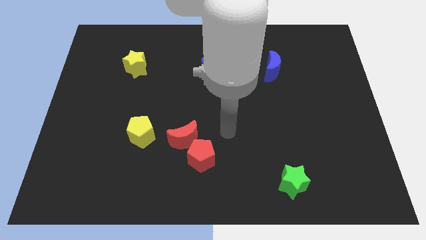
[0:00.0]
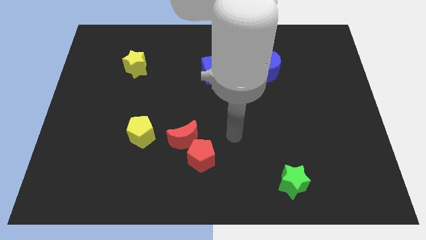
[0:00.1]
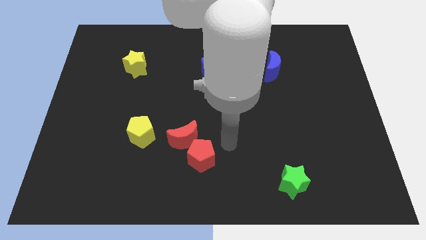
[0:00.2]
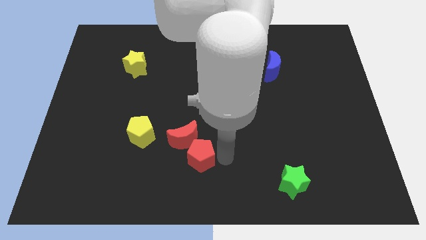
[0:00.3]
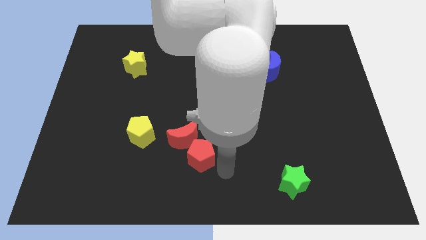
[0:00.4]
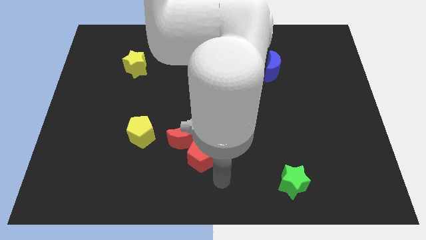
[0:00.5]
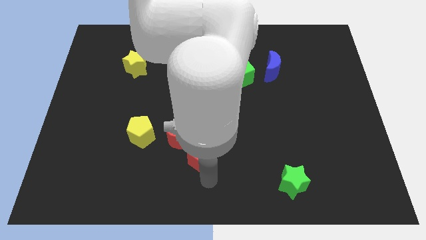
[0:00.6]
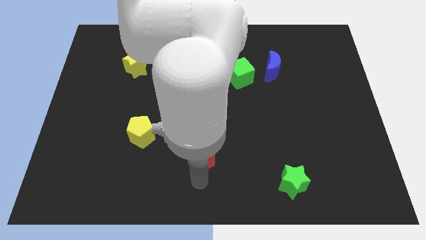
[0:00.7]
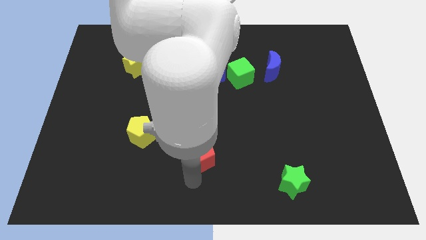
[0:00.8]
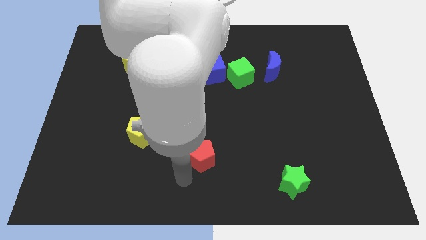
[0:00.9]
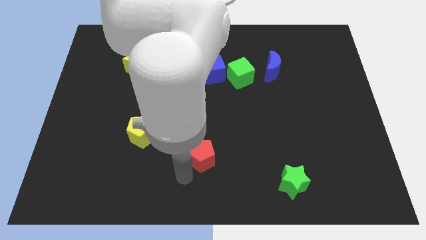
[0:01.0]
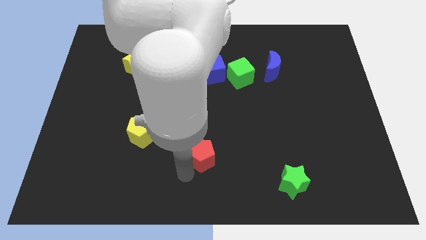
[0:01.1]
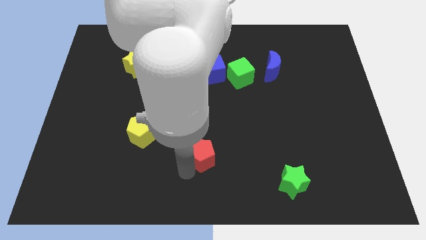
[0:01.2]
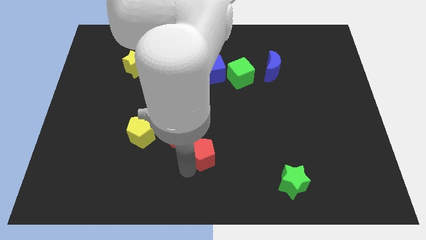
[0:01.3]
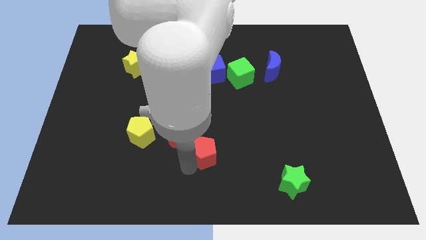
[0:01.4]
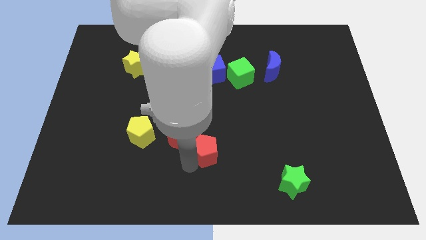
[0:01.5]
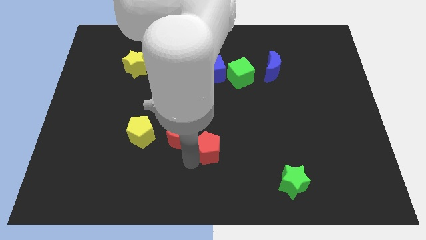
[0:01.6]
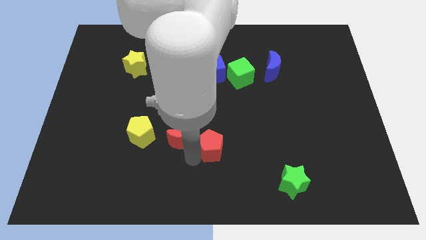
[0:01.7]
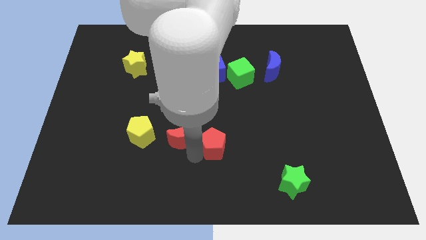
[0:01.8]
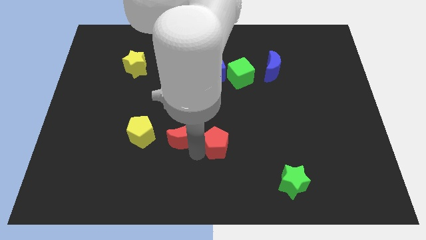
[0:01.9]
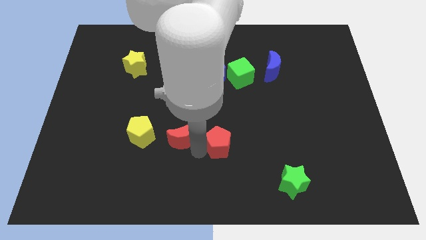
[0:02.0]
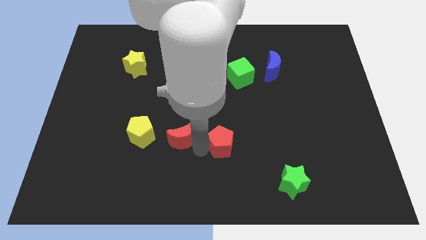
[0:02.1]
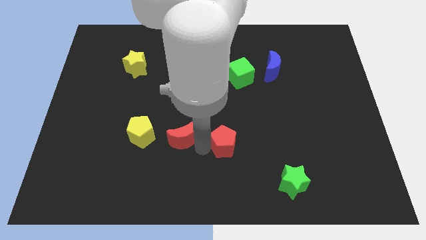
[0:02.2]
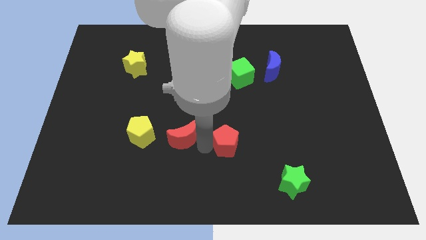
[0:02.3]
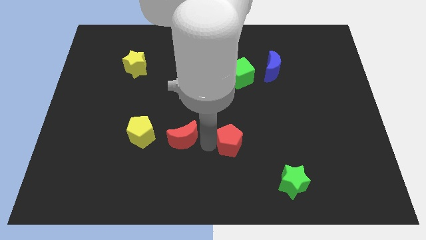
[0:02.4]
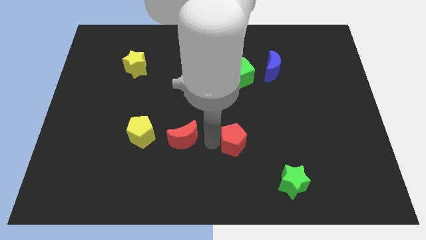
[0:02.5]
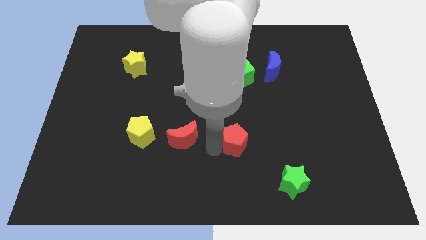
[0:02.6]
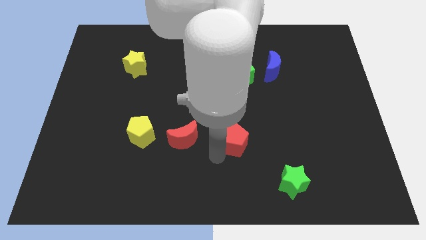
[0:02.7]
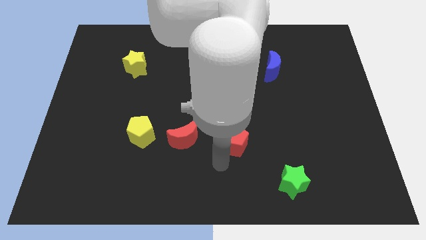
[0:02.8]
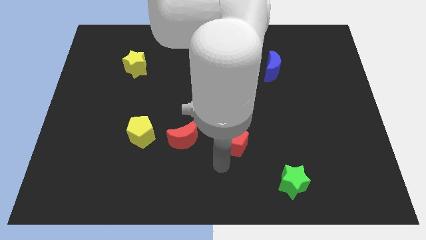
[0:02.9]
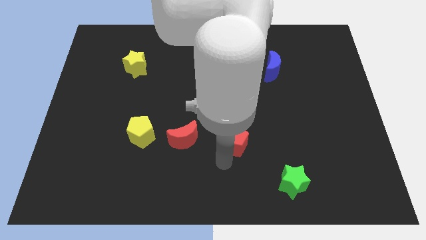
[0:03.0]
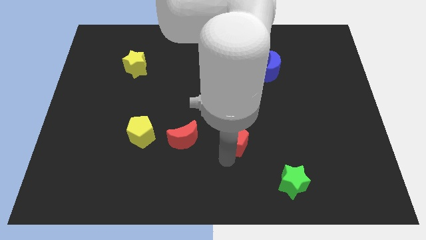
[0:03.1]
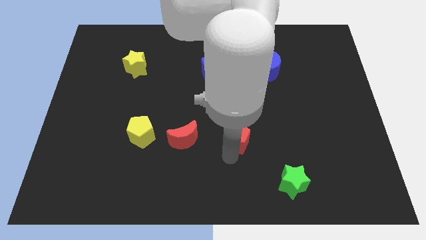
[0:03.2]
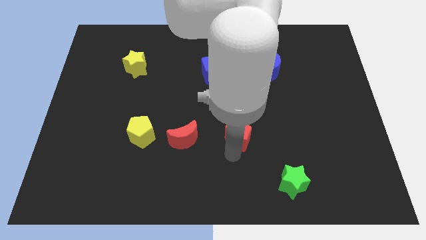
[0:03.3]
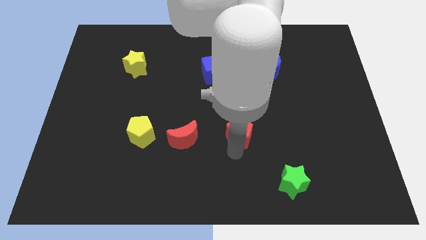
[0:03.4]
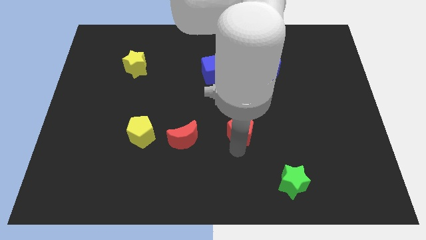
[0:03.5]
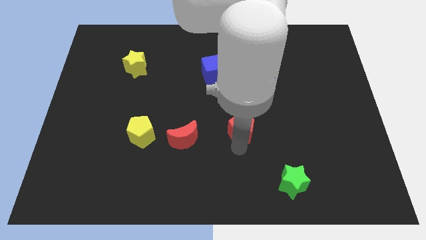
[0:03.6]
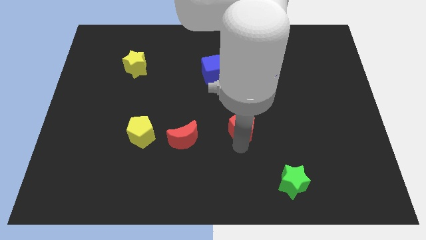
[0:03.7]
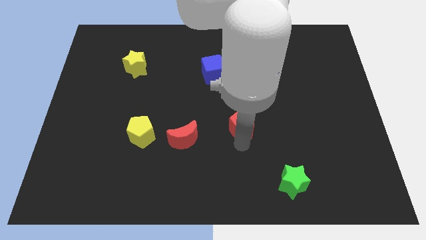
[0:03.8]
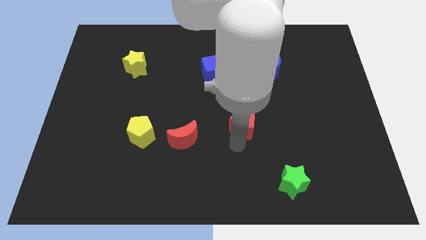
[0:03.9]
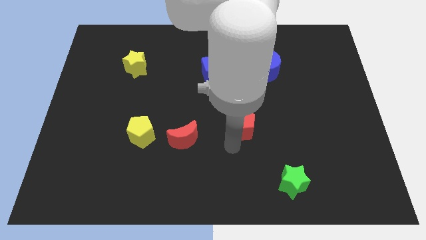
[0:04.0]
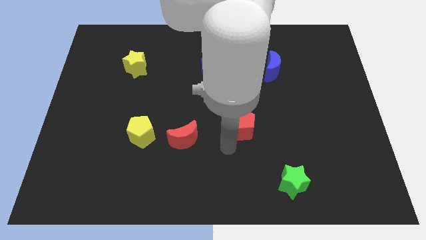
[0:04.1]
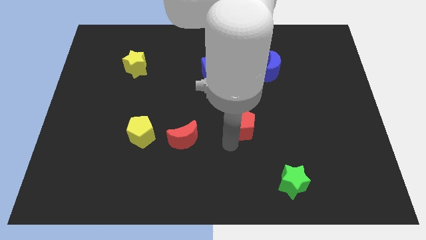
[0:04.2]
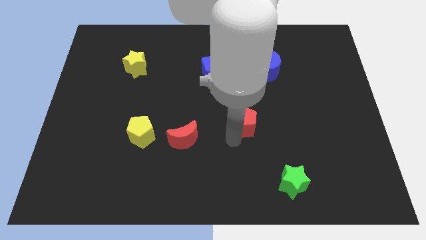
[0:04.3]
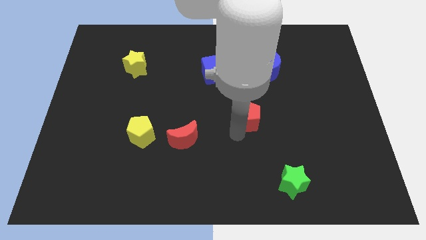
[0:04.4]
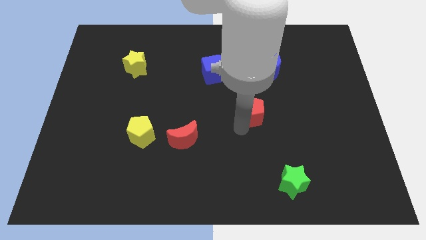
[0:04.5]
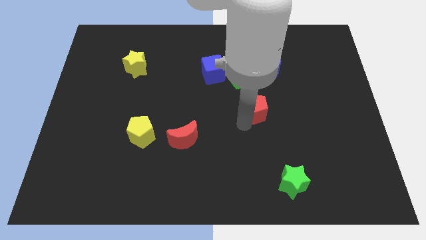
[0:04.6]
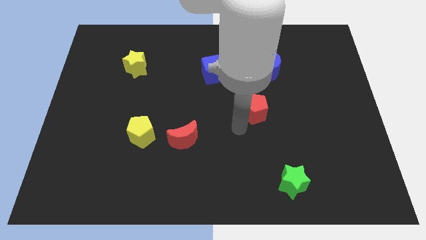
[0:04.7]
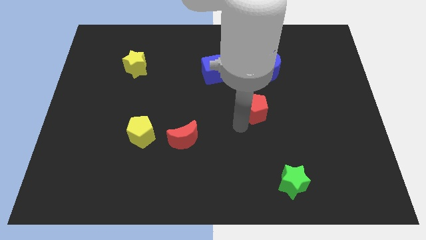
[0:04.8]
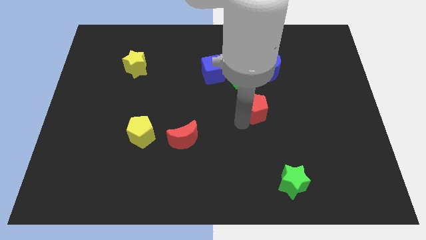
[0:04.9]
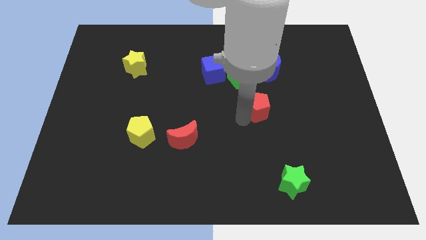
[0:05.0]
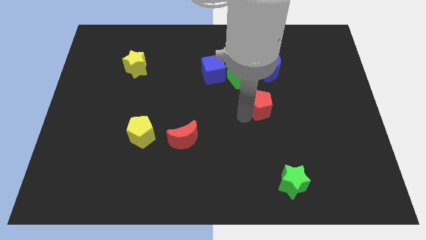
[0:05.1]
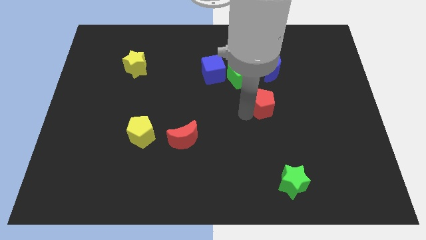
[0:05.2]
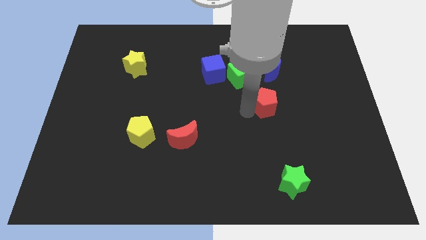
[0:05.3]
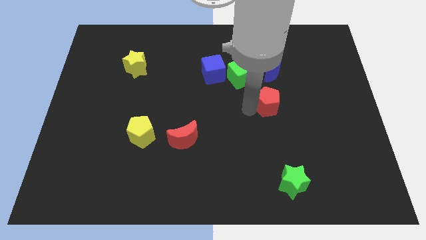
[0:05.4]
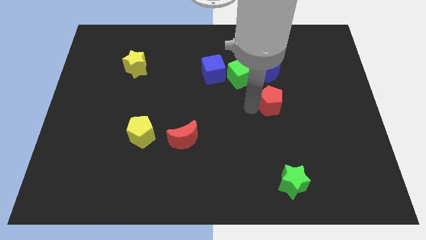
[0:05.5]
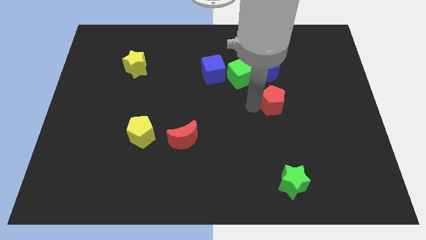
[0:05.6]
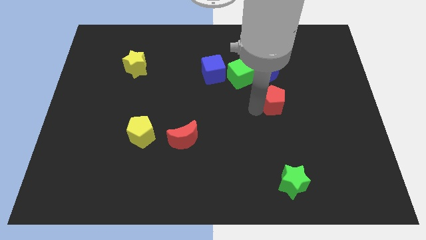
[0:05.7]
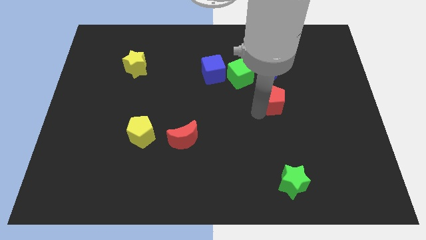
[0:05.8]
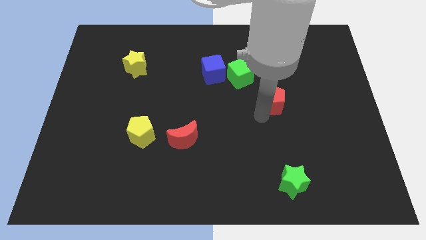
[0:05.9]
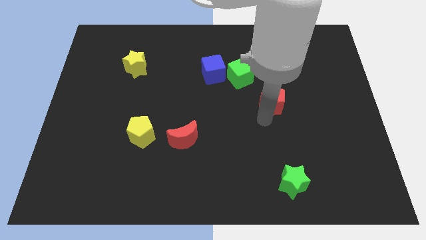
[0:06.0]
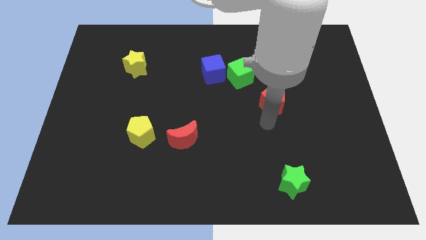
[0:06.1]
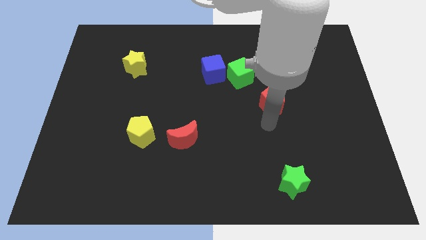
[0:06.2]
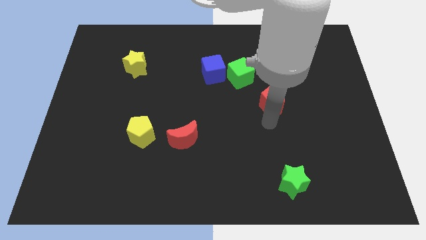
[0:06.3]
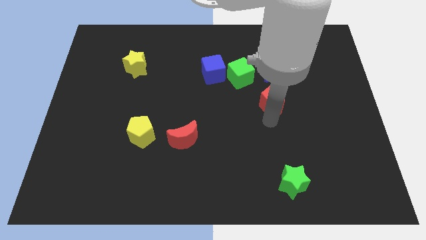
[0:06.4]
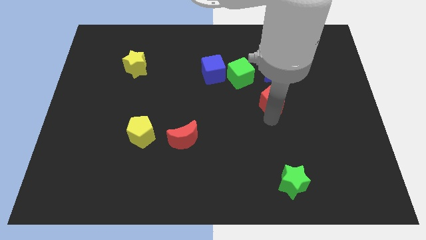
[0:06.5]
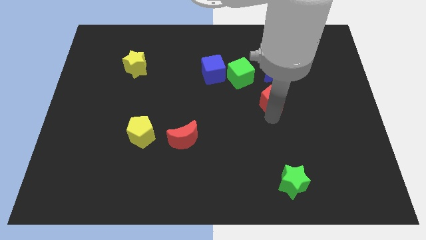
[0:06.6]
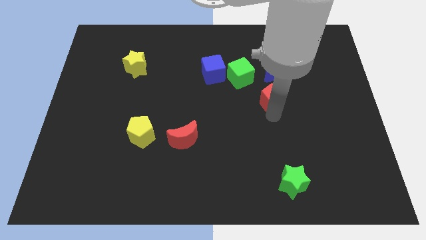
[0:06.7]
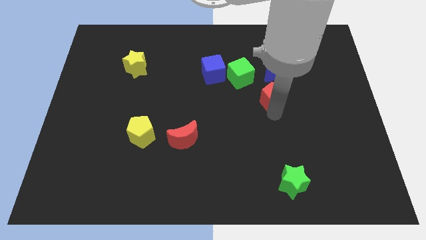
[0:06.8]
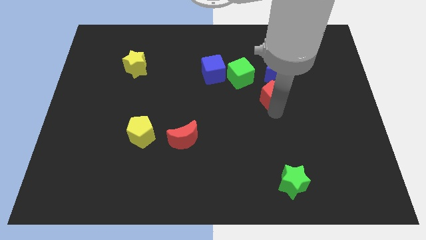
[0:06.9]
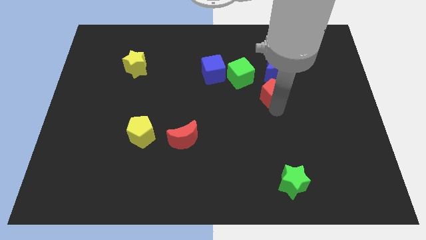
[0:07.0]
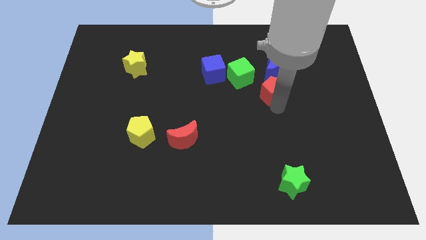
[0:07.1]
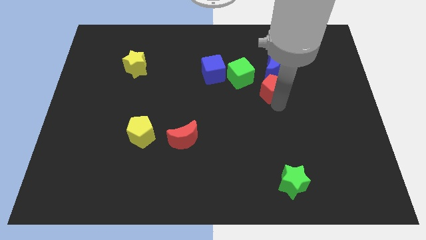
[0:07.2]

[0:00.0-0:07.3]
slide the red pentagon to the right side of the green cube
